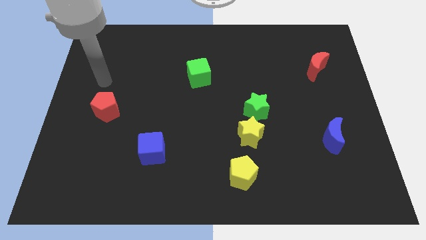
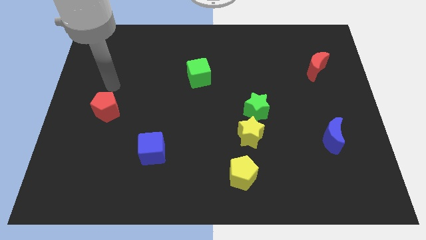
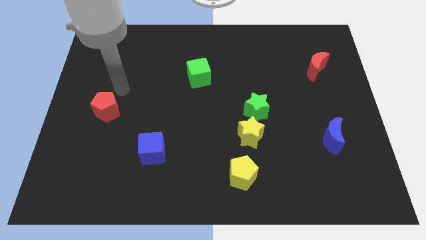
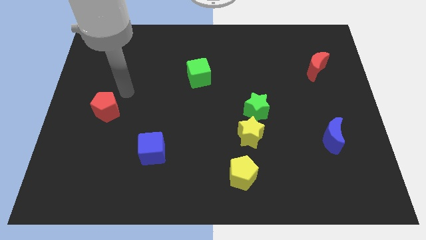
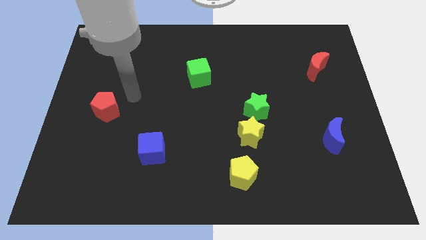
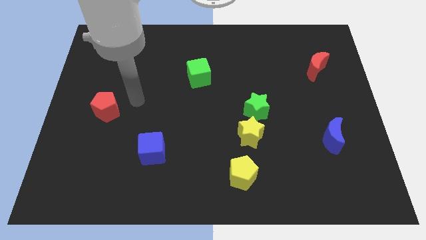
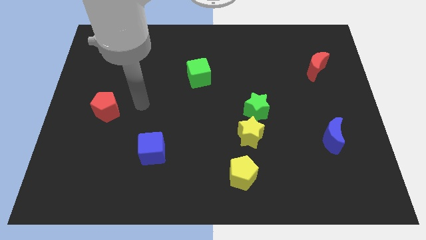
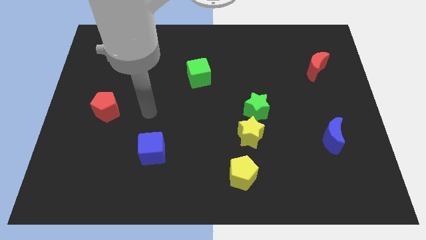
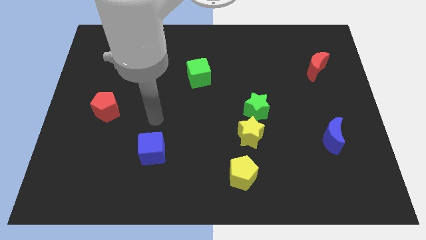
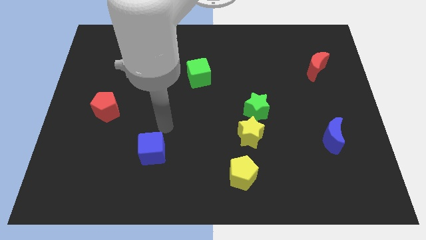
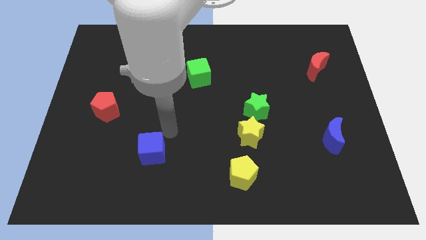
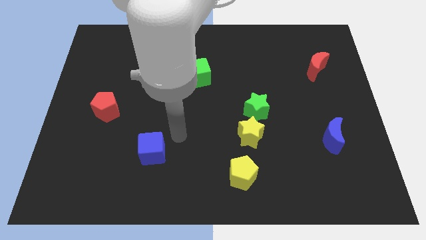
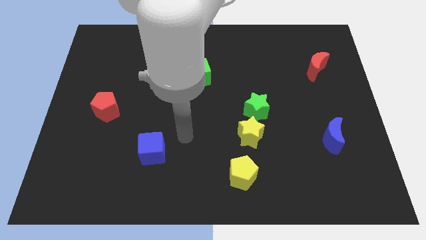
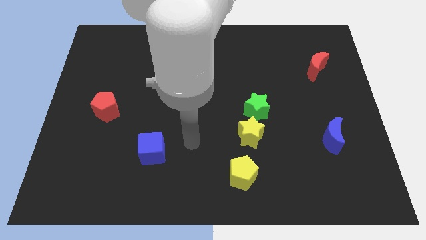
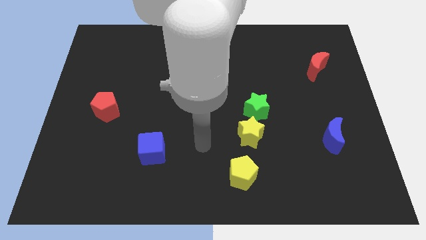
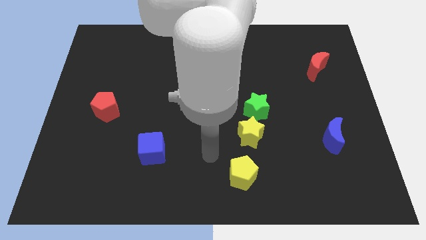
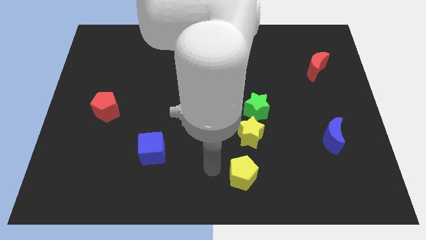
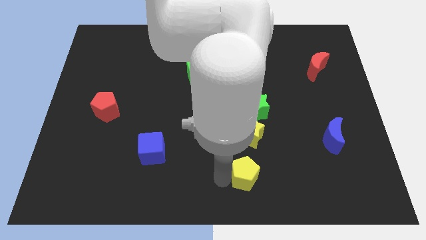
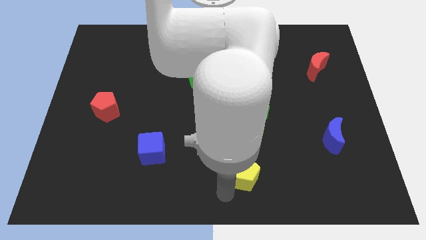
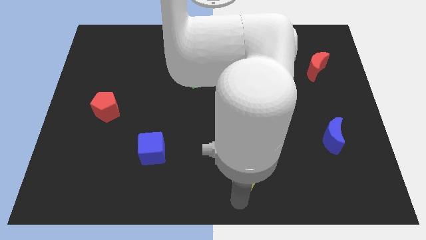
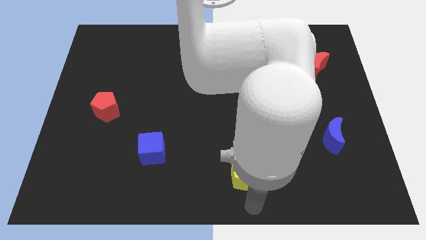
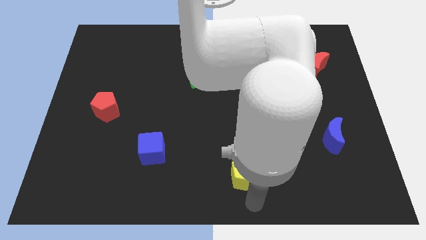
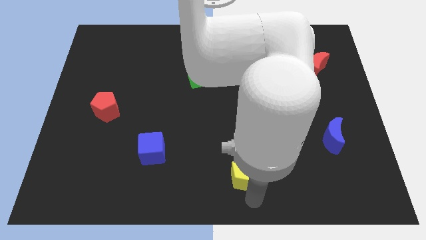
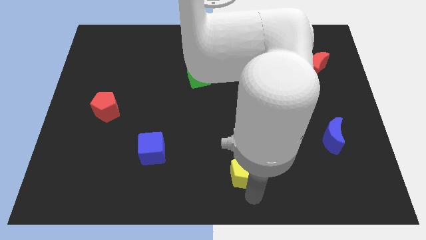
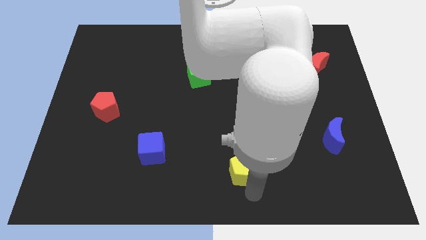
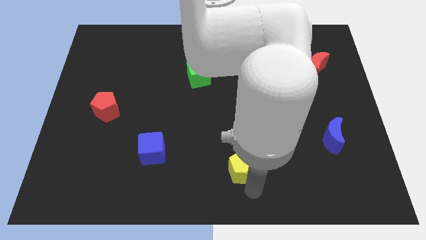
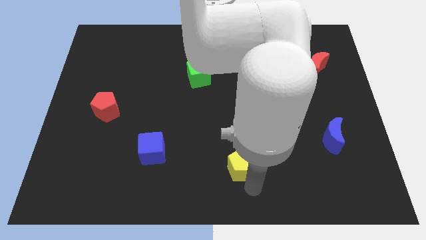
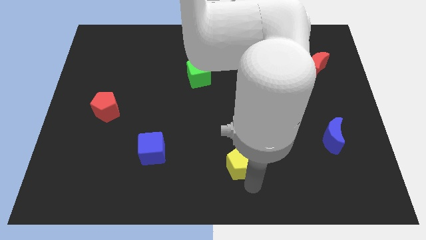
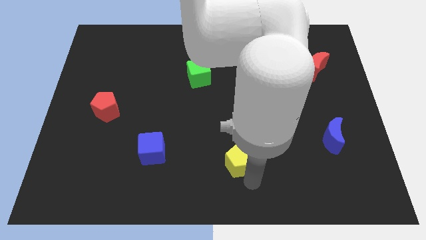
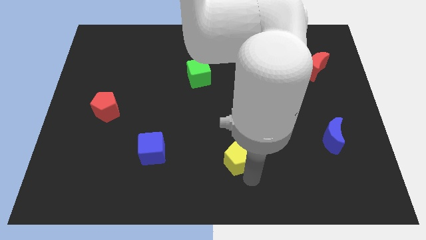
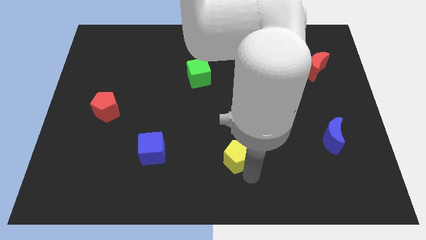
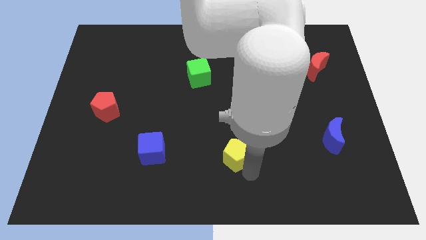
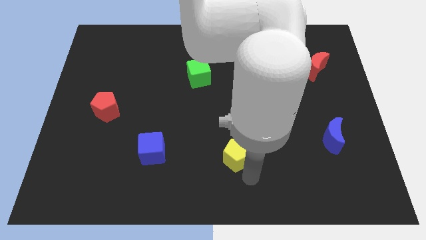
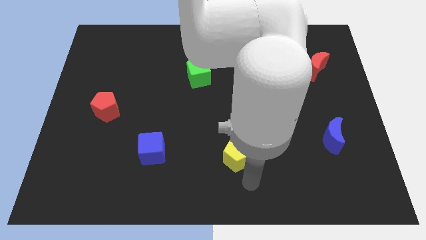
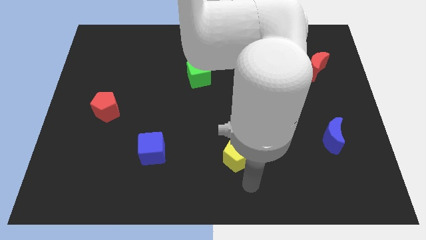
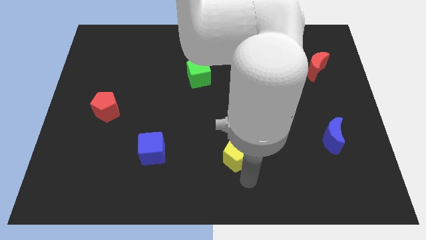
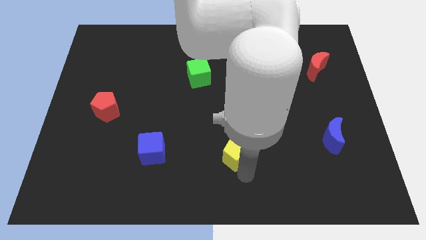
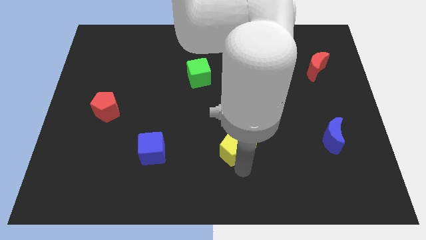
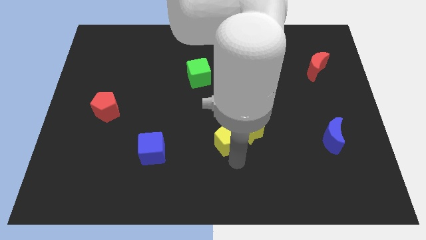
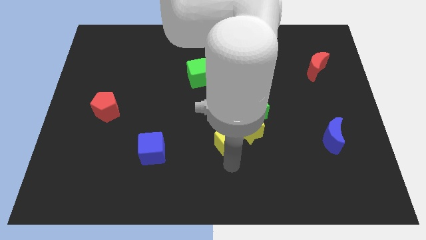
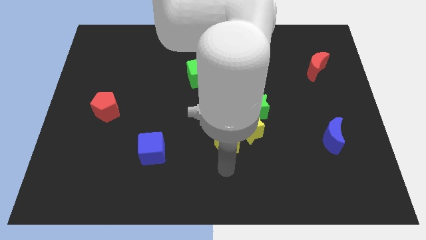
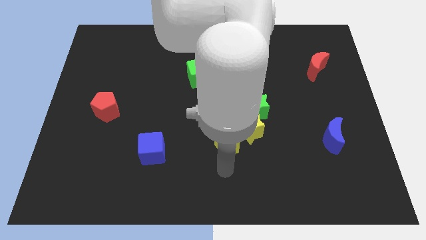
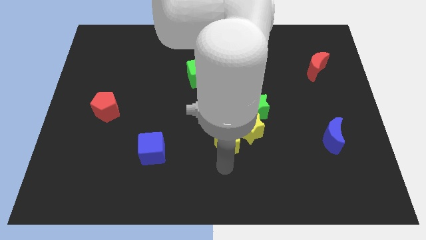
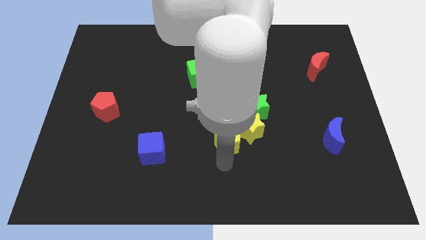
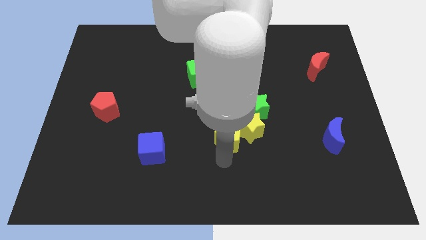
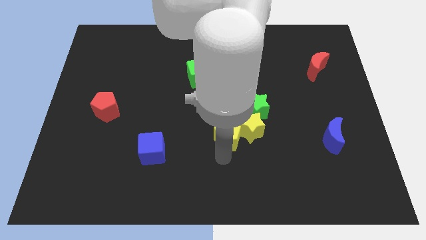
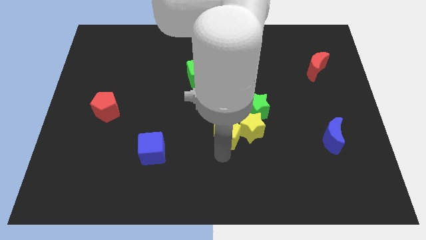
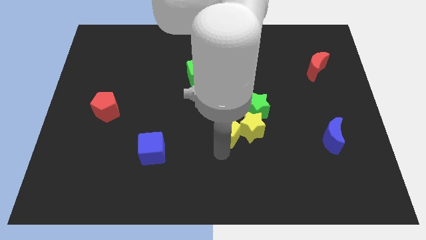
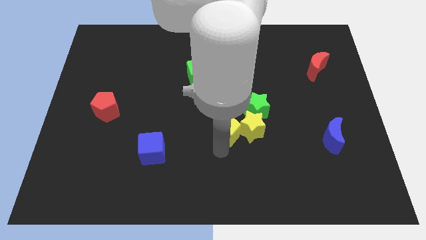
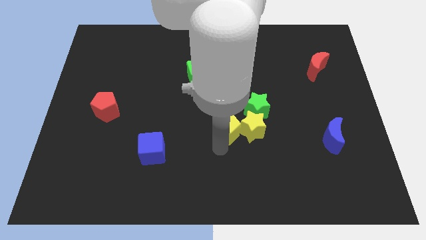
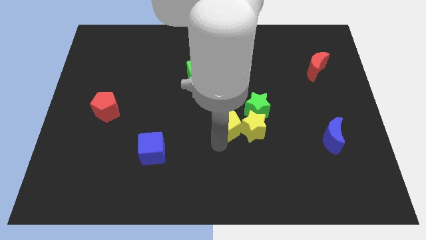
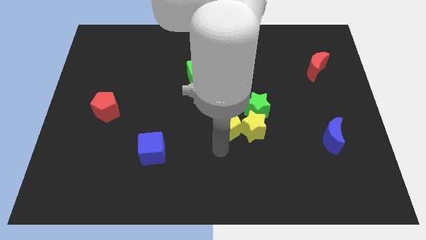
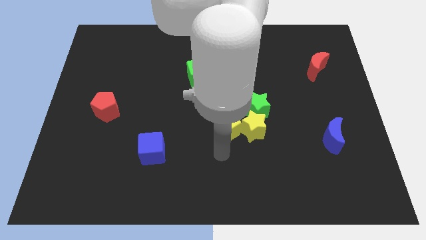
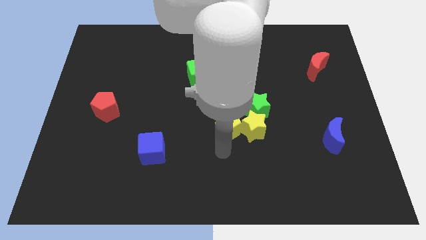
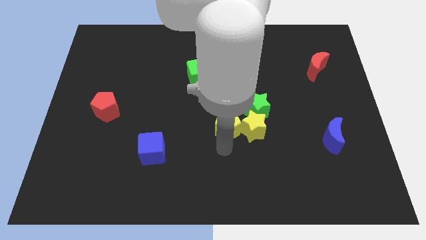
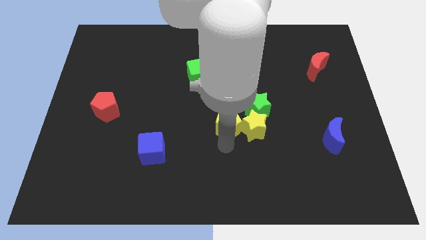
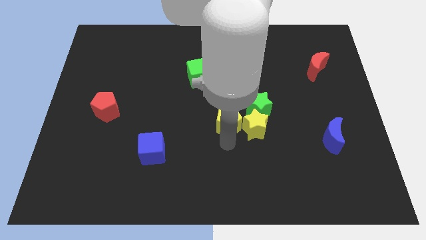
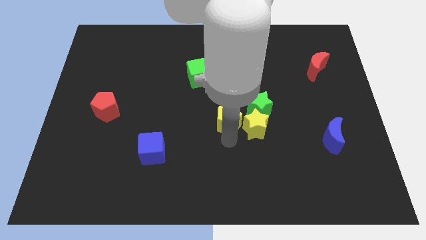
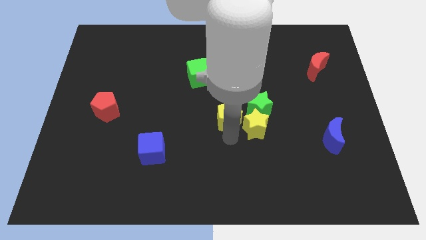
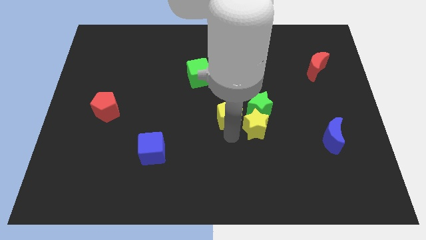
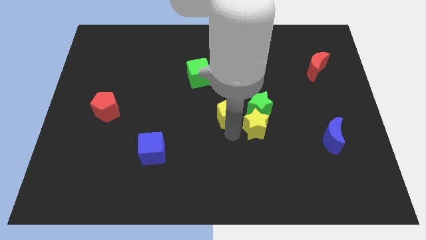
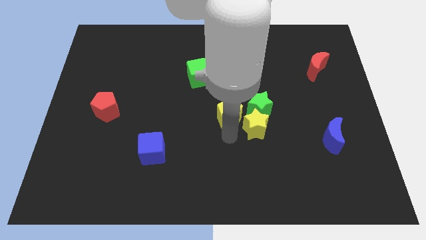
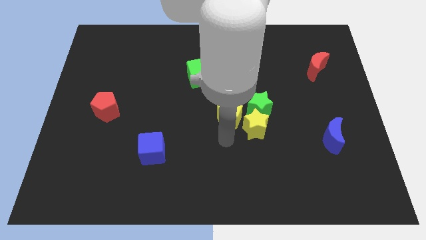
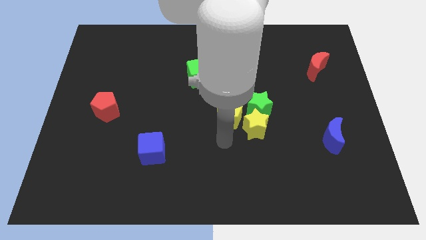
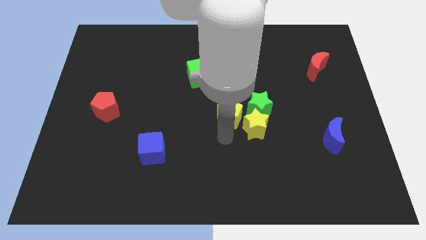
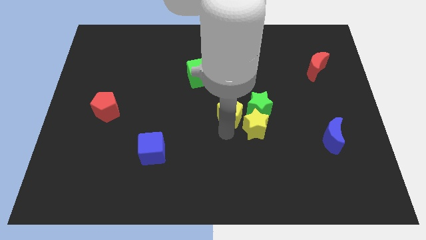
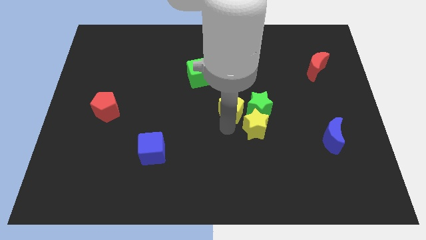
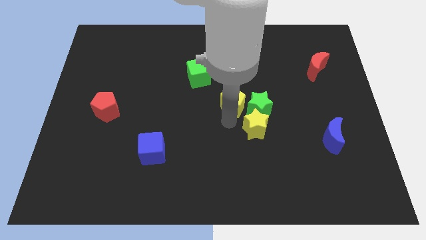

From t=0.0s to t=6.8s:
move the yellow pentagon to the top left of the green star

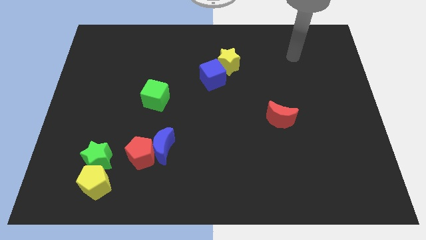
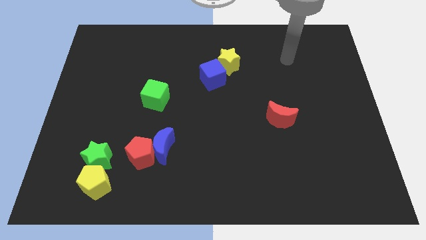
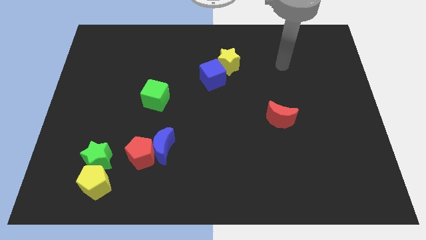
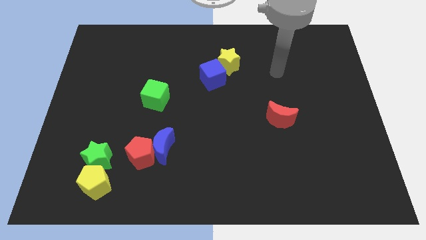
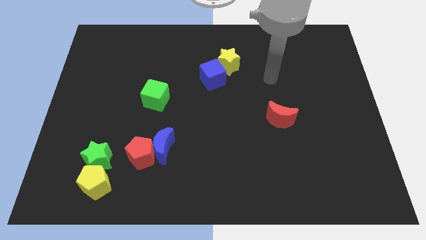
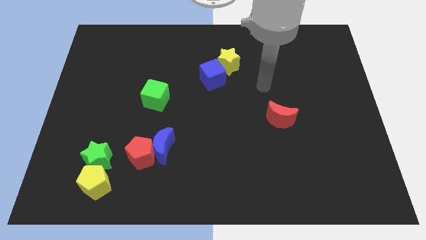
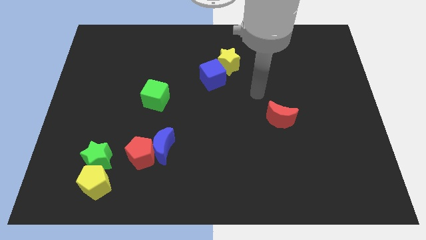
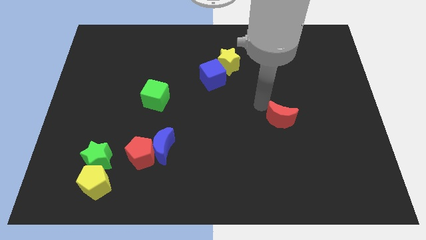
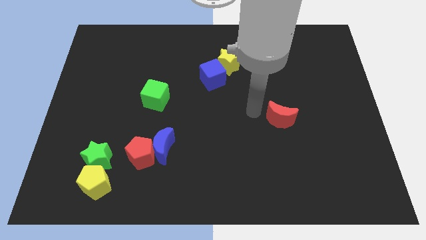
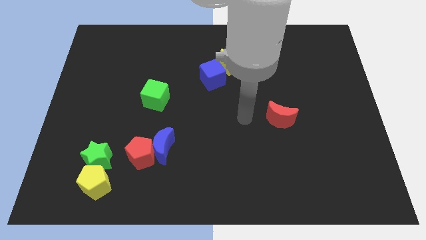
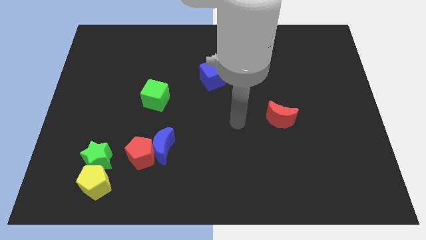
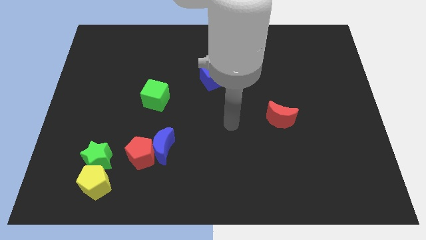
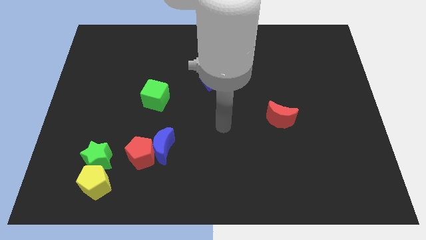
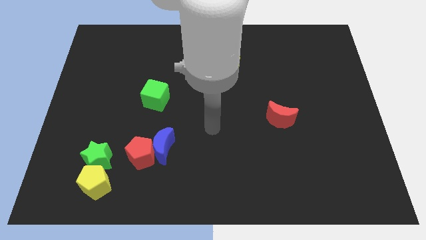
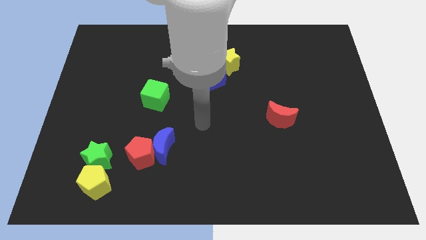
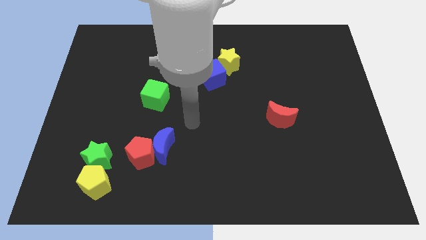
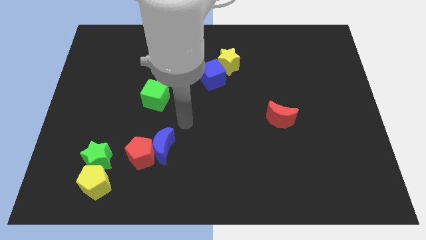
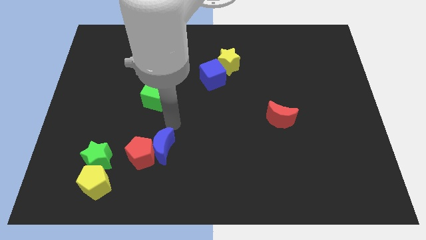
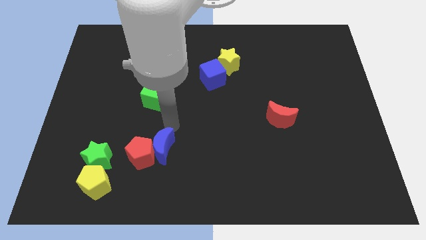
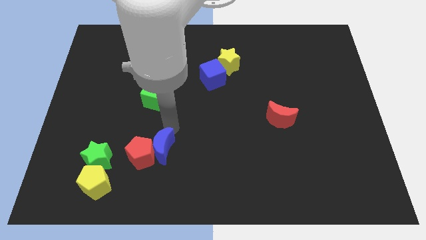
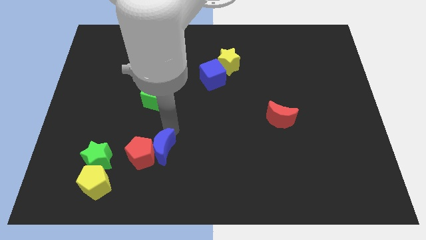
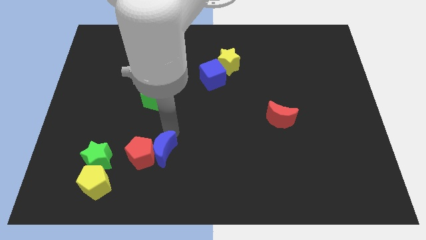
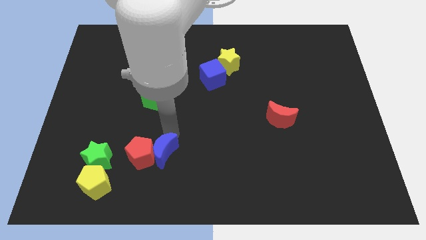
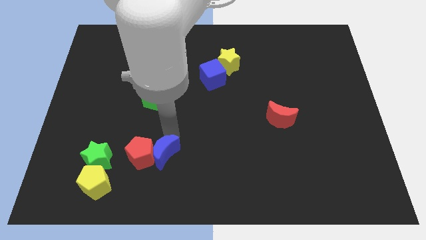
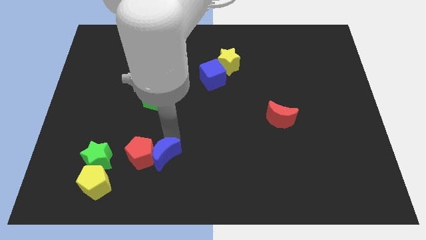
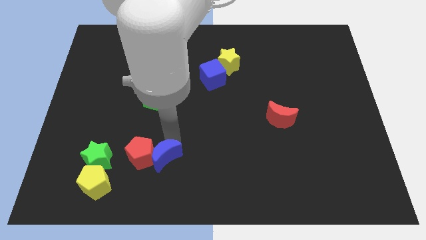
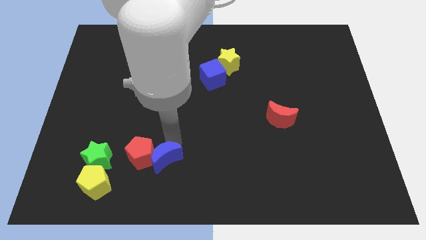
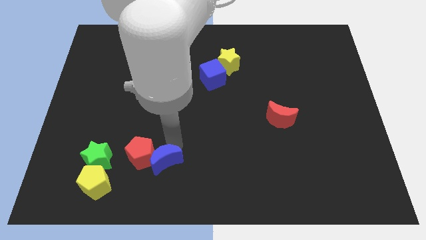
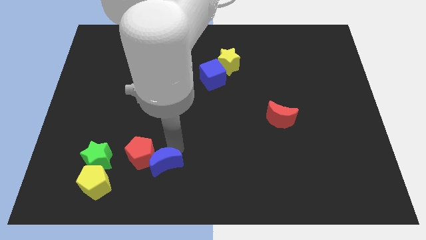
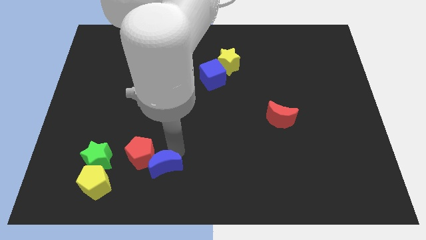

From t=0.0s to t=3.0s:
slide the blue moon to the right of the yellow pentagon
